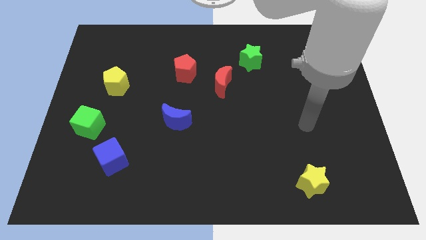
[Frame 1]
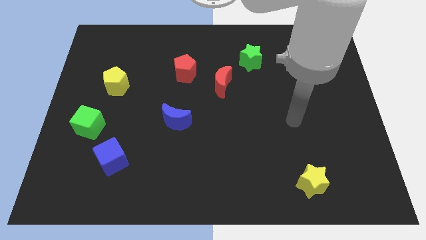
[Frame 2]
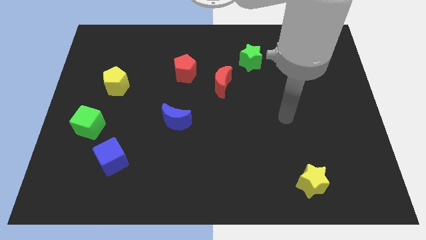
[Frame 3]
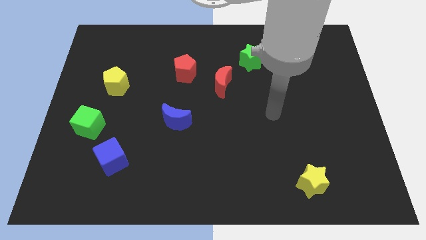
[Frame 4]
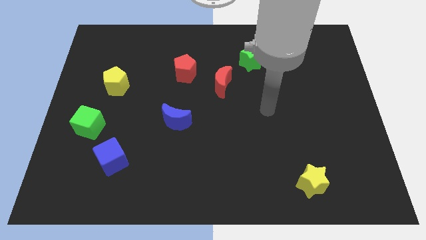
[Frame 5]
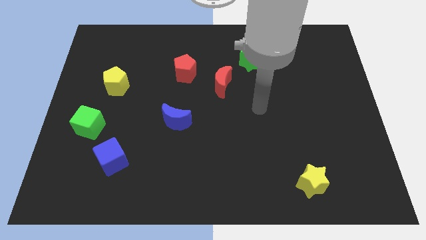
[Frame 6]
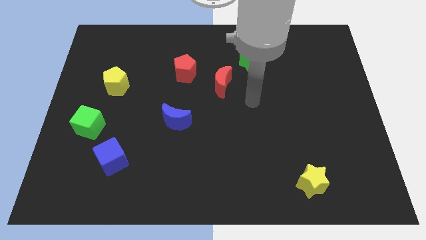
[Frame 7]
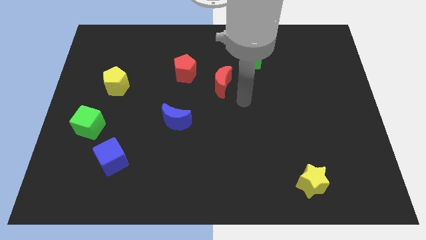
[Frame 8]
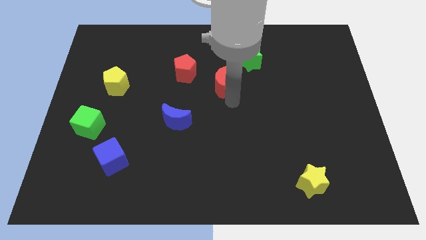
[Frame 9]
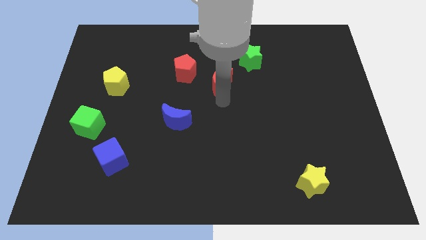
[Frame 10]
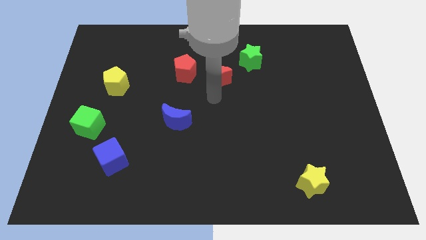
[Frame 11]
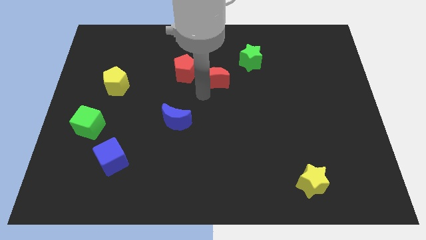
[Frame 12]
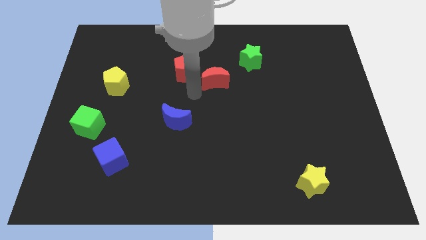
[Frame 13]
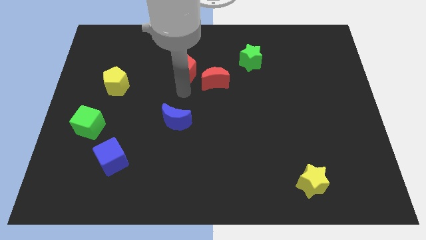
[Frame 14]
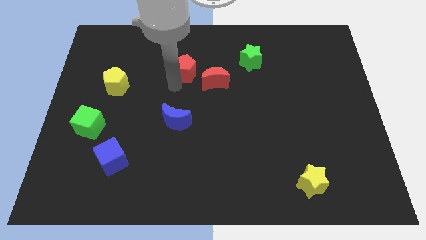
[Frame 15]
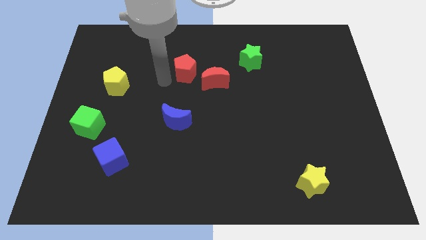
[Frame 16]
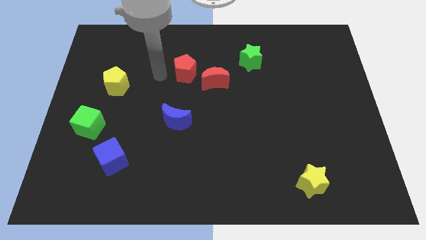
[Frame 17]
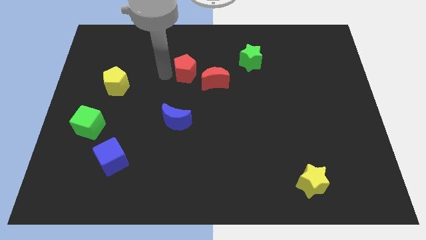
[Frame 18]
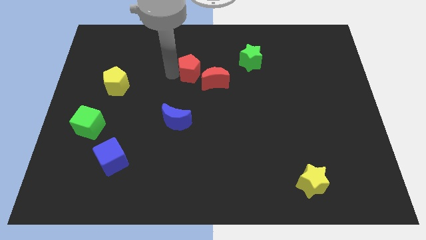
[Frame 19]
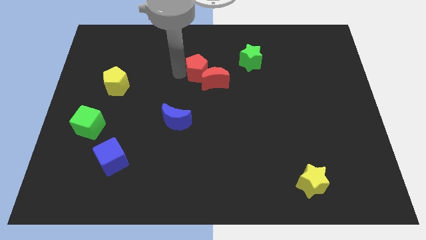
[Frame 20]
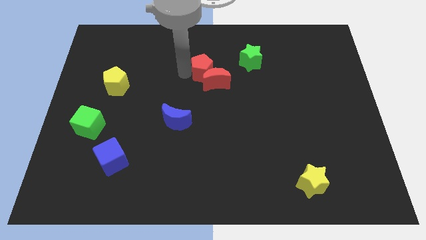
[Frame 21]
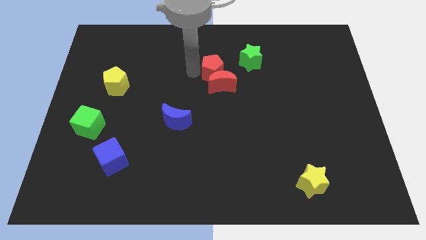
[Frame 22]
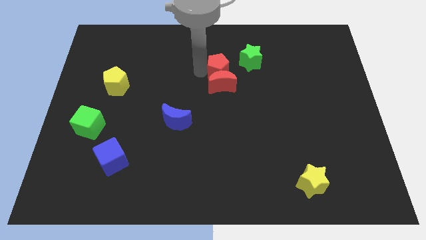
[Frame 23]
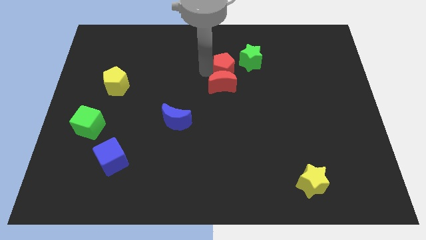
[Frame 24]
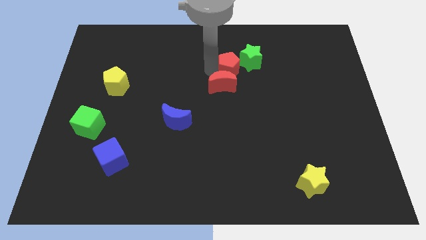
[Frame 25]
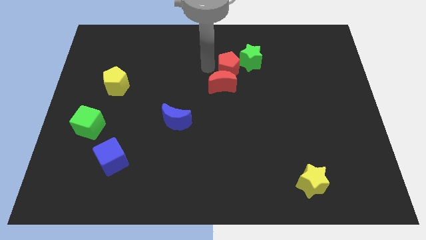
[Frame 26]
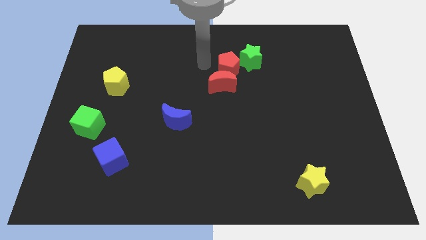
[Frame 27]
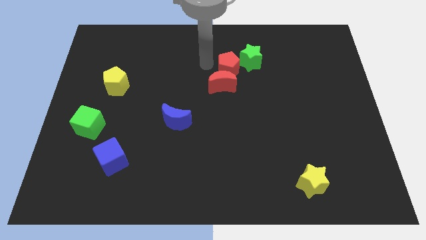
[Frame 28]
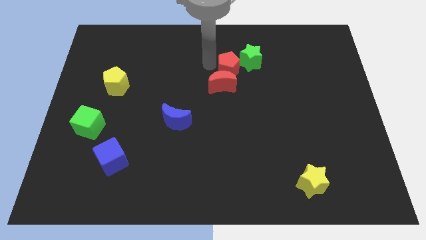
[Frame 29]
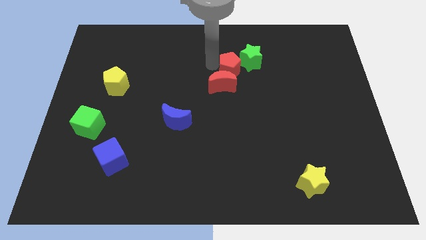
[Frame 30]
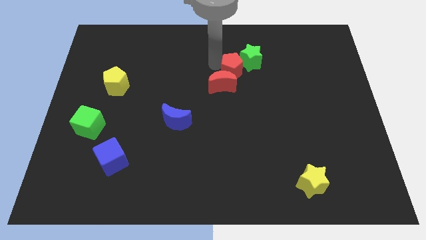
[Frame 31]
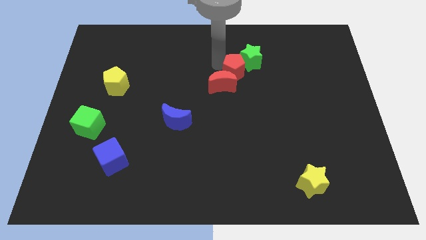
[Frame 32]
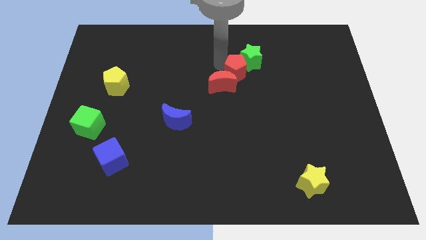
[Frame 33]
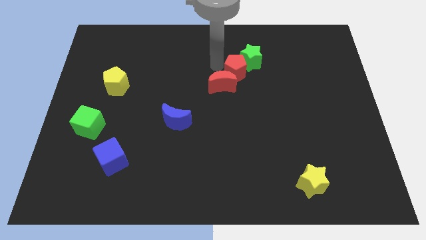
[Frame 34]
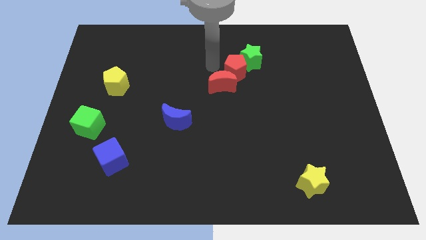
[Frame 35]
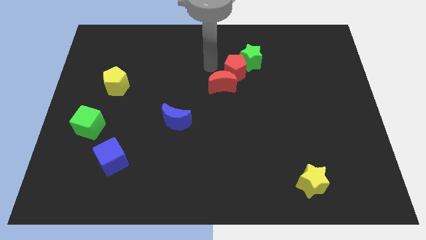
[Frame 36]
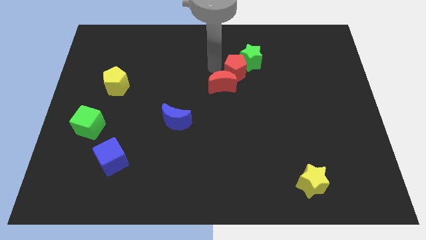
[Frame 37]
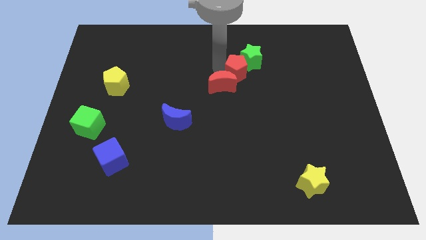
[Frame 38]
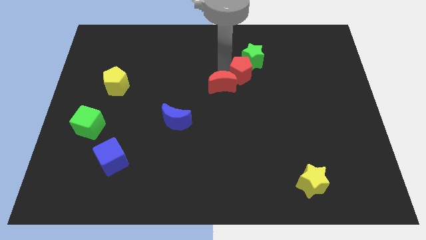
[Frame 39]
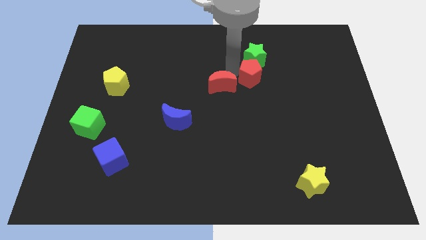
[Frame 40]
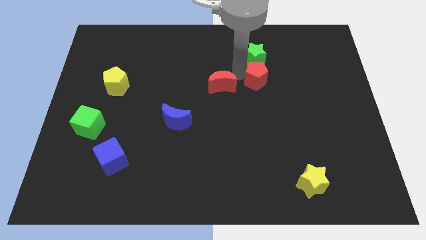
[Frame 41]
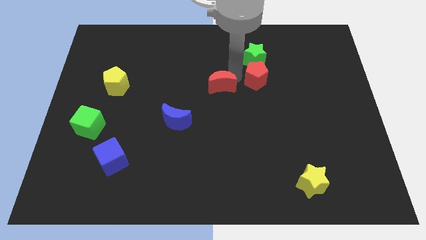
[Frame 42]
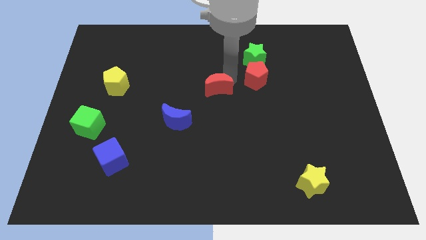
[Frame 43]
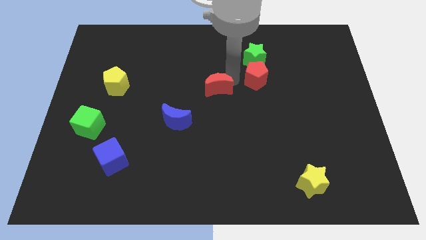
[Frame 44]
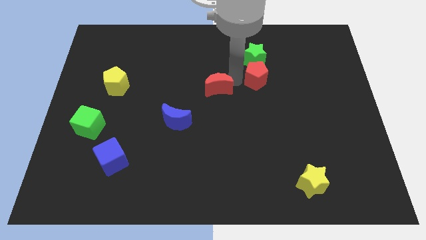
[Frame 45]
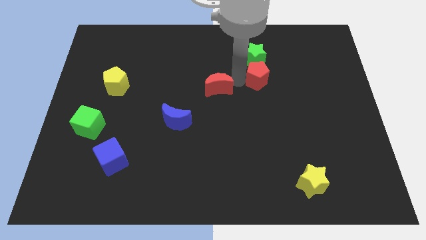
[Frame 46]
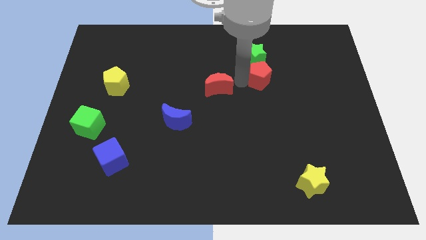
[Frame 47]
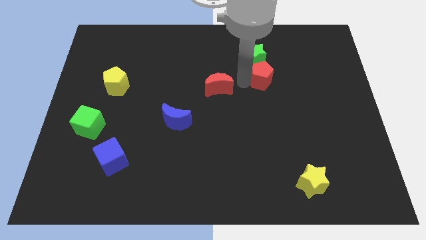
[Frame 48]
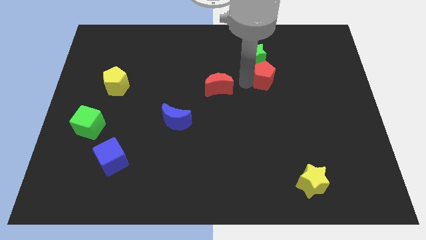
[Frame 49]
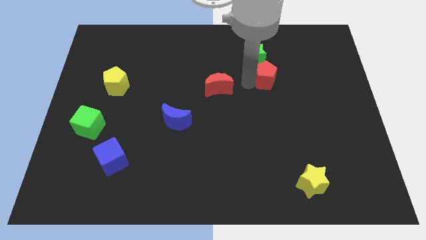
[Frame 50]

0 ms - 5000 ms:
slide the red pentagon to the right

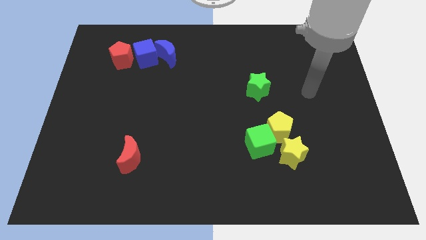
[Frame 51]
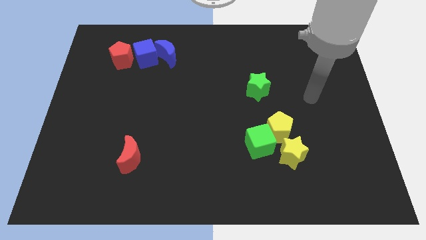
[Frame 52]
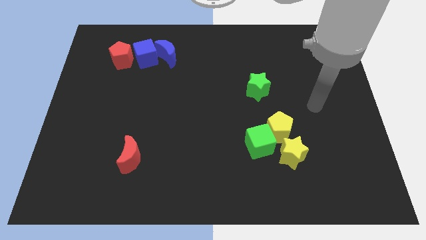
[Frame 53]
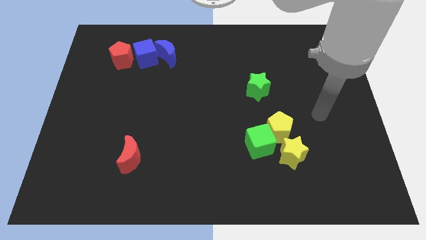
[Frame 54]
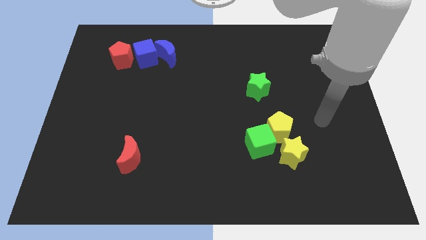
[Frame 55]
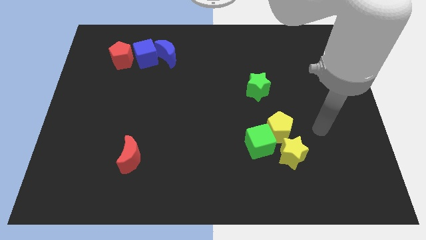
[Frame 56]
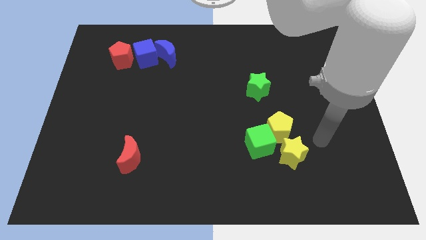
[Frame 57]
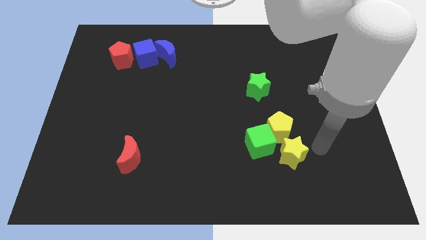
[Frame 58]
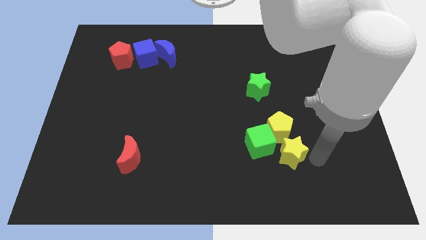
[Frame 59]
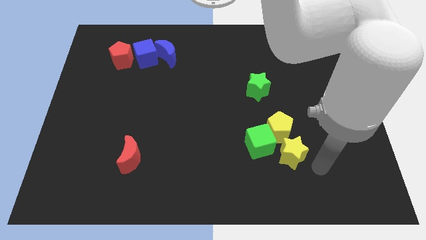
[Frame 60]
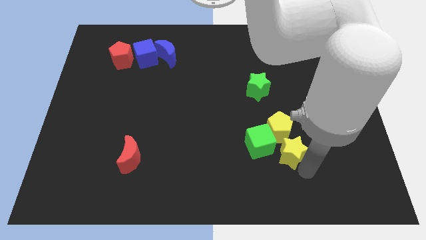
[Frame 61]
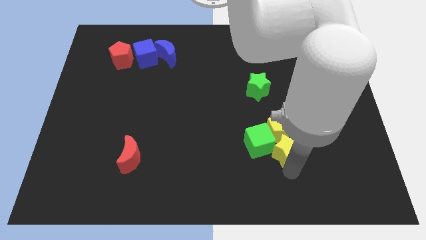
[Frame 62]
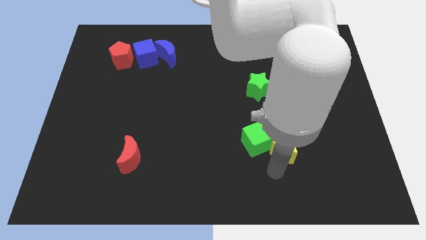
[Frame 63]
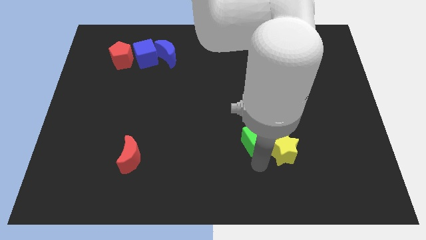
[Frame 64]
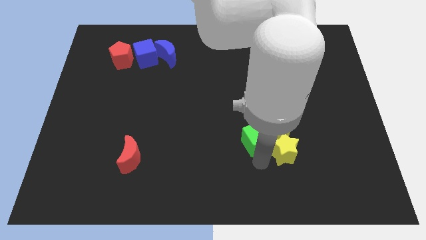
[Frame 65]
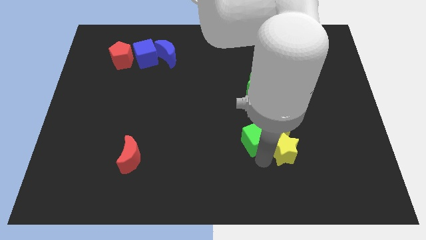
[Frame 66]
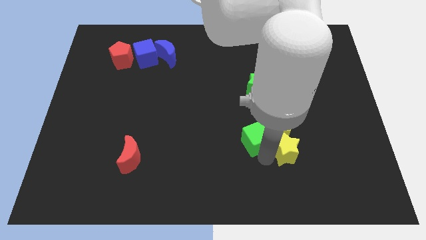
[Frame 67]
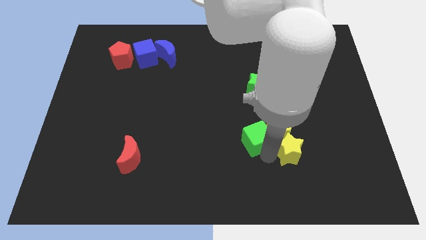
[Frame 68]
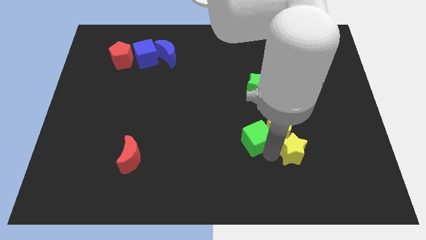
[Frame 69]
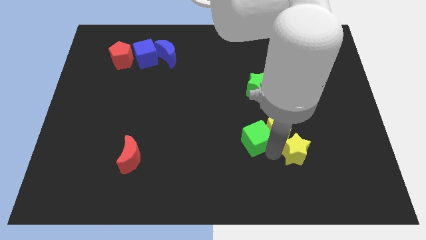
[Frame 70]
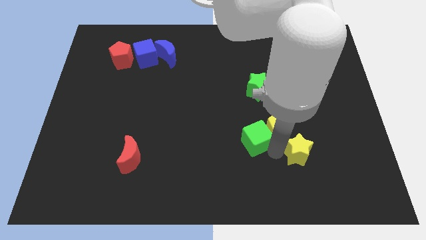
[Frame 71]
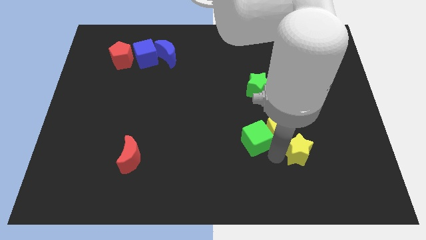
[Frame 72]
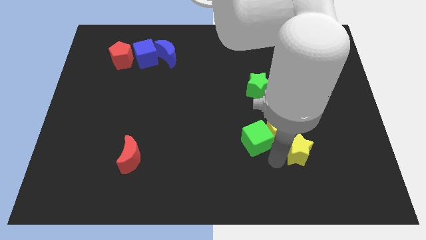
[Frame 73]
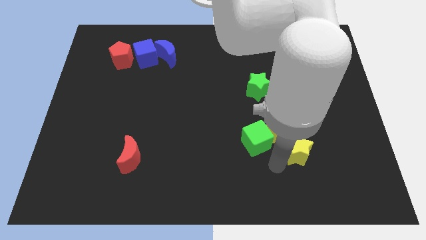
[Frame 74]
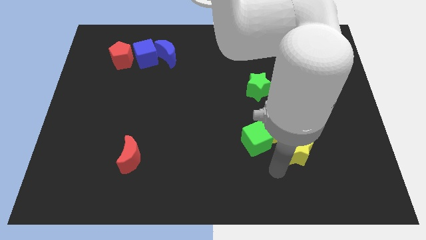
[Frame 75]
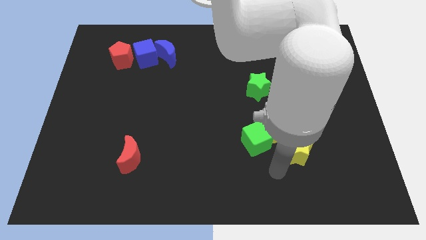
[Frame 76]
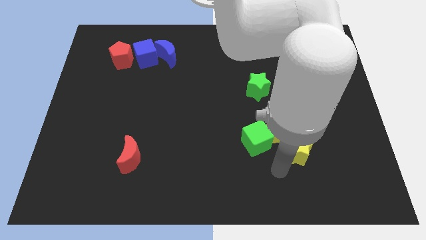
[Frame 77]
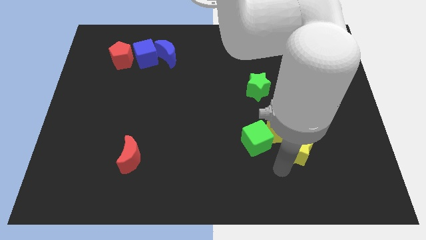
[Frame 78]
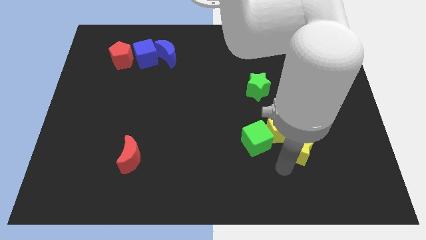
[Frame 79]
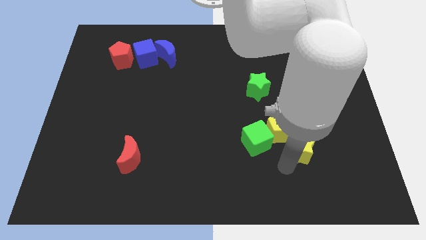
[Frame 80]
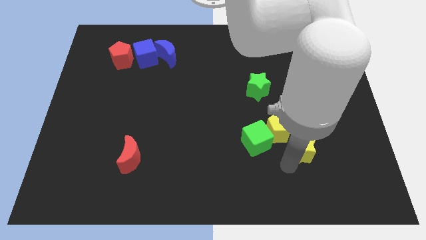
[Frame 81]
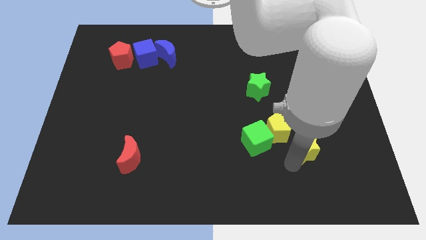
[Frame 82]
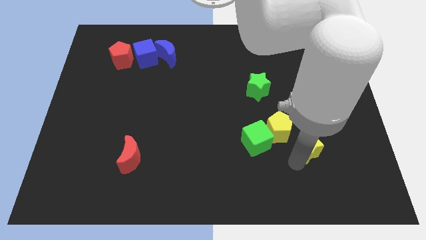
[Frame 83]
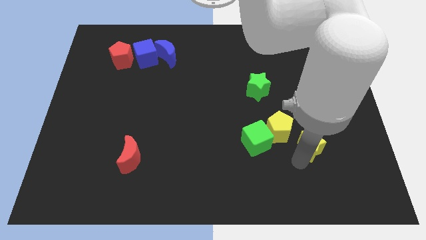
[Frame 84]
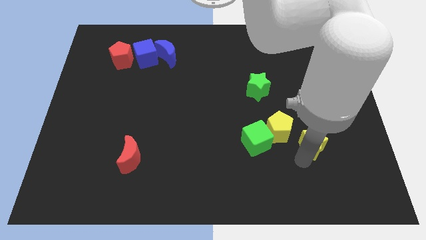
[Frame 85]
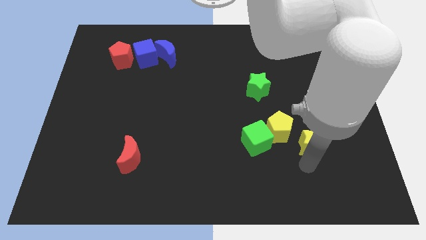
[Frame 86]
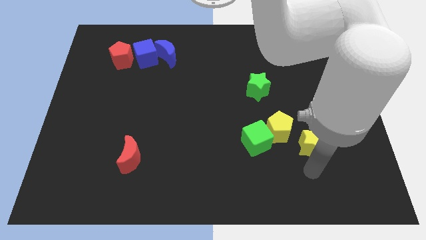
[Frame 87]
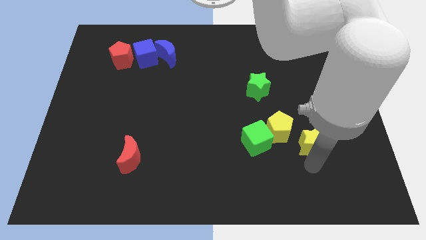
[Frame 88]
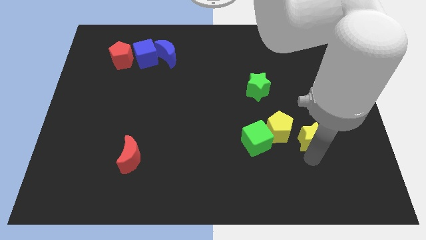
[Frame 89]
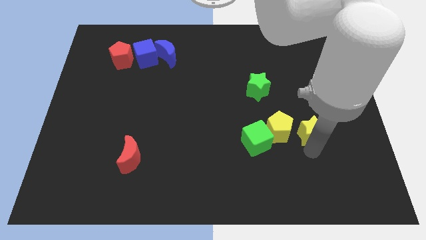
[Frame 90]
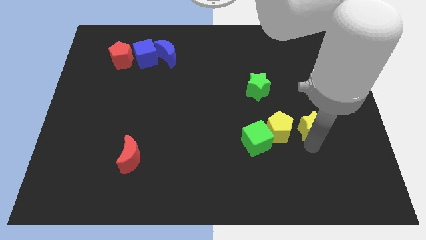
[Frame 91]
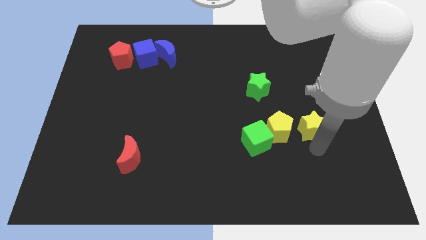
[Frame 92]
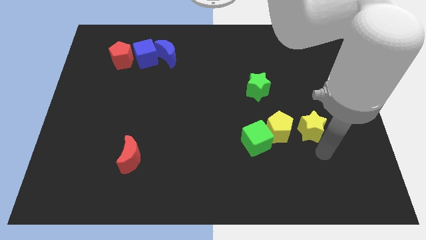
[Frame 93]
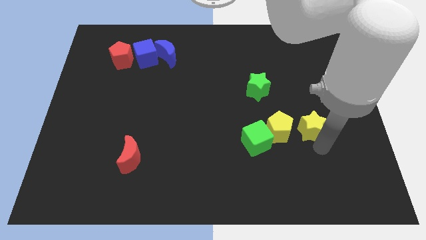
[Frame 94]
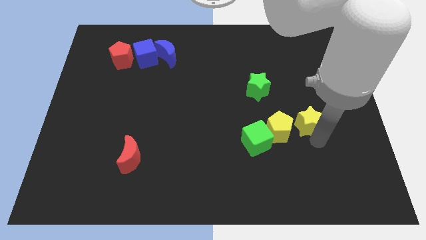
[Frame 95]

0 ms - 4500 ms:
slightly move the yellow star up
